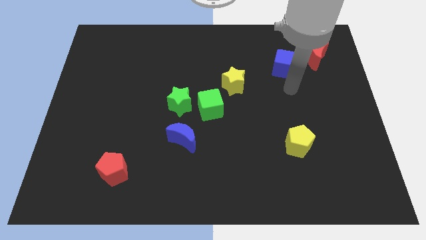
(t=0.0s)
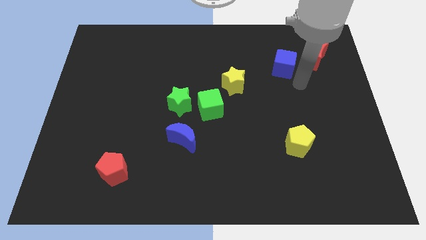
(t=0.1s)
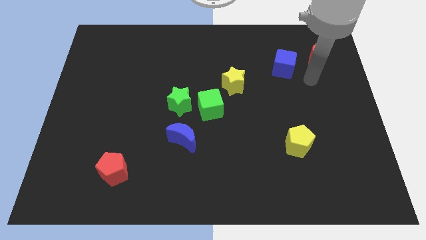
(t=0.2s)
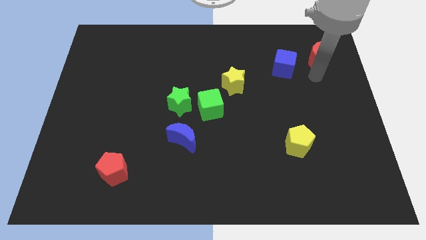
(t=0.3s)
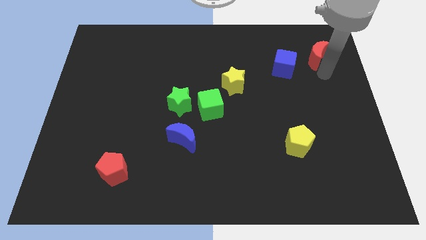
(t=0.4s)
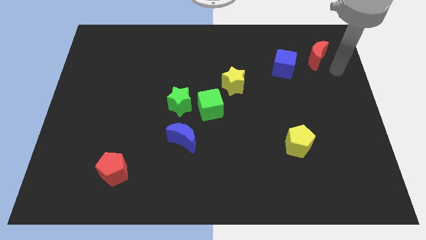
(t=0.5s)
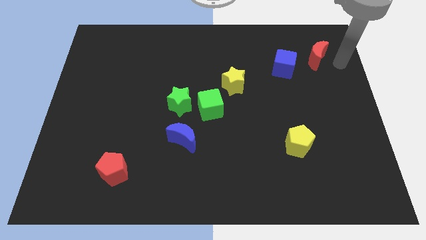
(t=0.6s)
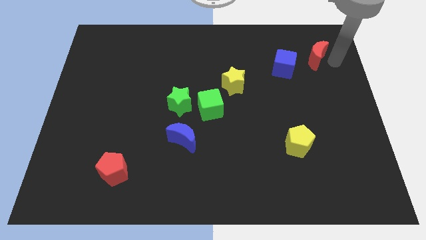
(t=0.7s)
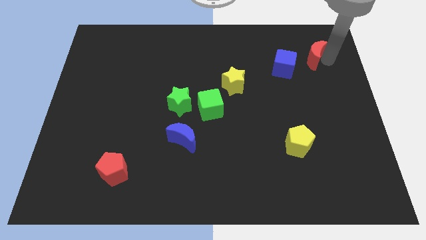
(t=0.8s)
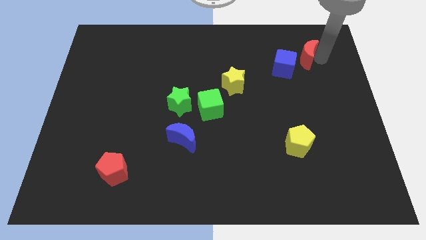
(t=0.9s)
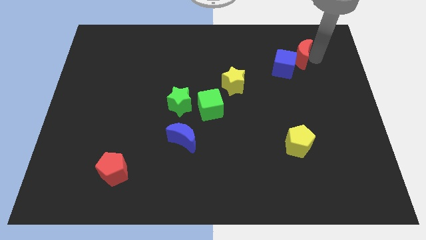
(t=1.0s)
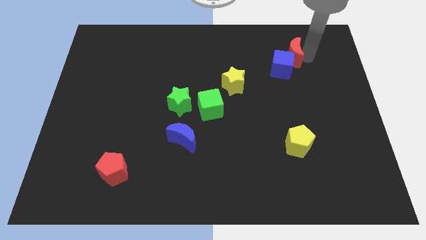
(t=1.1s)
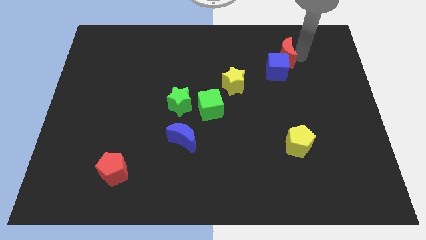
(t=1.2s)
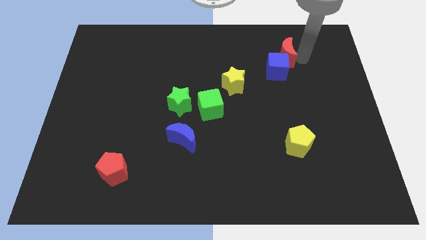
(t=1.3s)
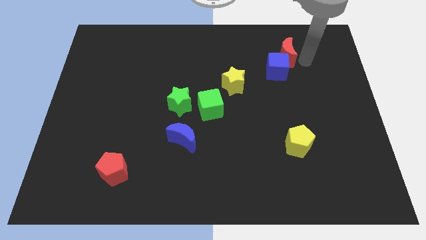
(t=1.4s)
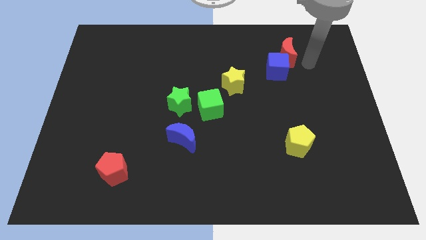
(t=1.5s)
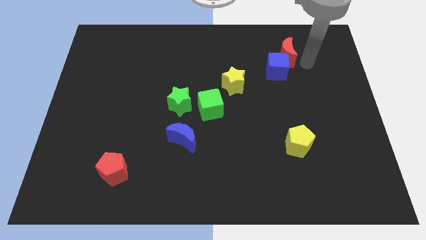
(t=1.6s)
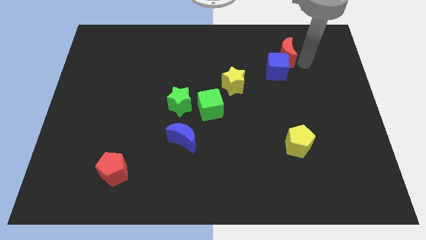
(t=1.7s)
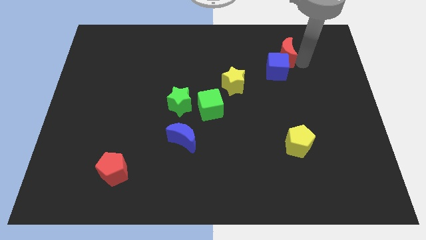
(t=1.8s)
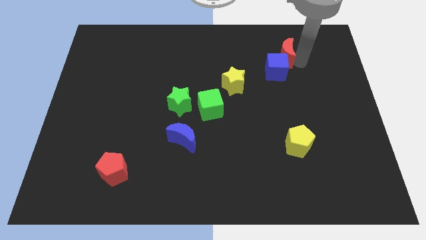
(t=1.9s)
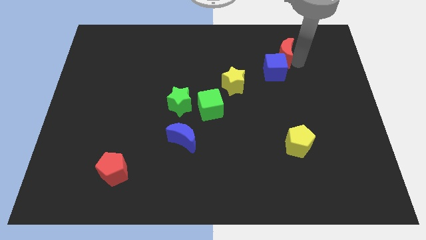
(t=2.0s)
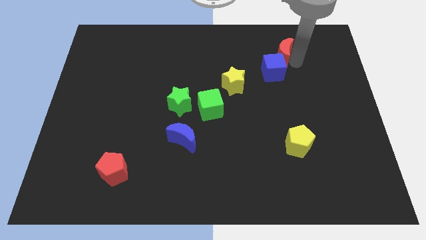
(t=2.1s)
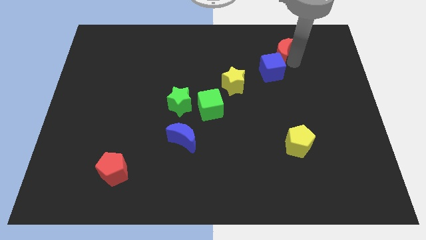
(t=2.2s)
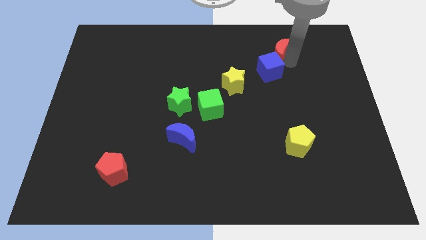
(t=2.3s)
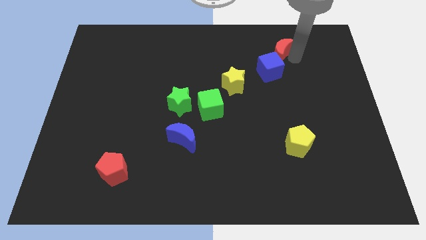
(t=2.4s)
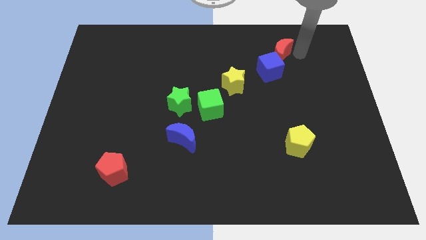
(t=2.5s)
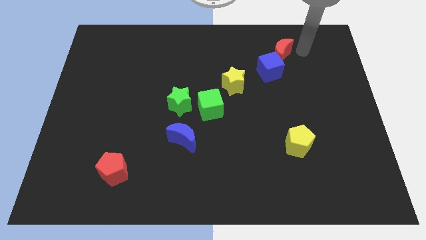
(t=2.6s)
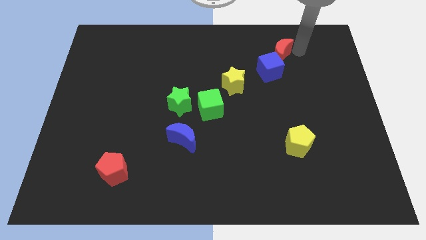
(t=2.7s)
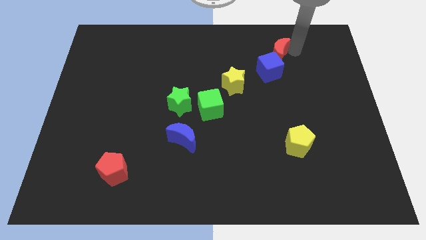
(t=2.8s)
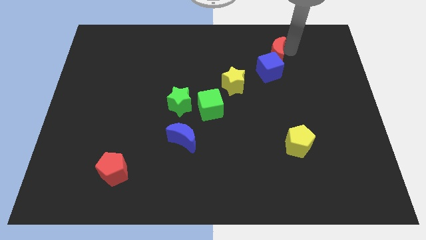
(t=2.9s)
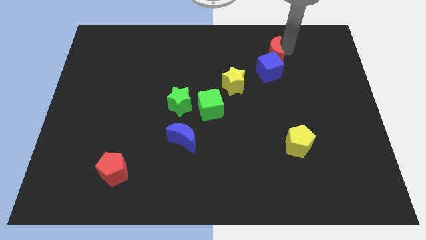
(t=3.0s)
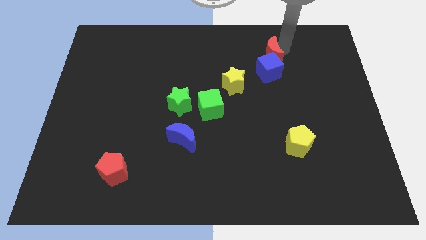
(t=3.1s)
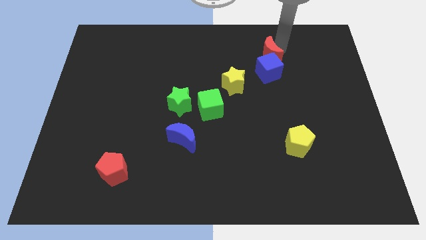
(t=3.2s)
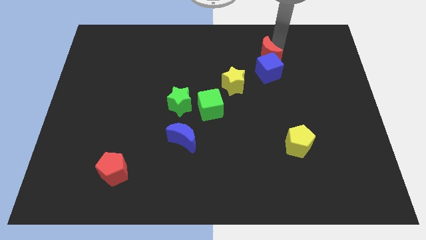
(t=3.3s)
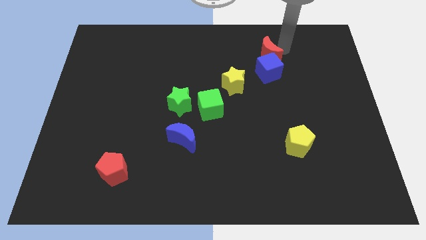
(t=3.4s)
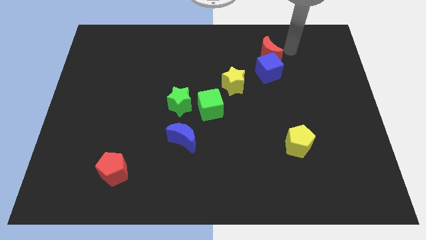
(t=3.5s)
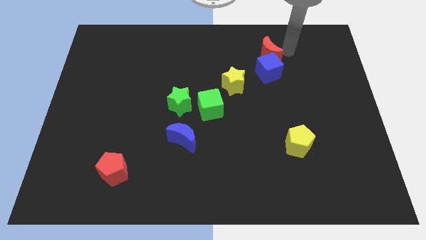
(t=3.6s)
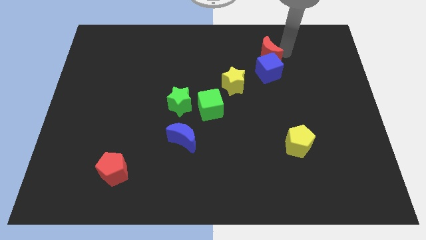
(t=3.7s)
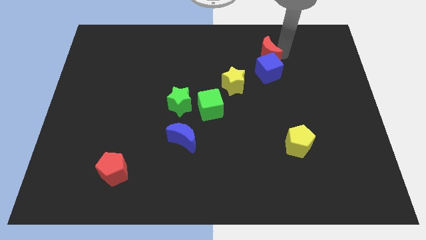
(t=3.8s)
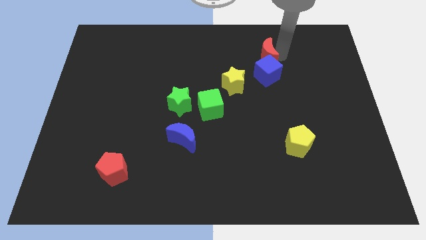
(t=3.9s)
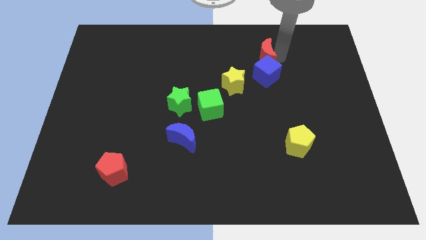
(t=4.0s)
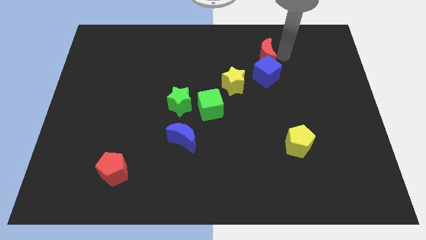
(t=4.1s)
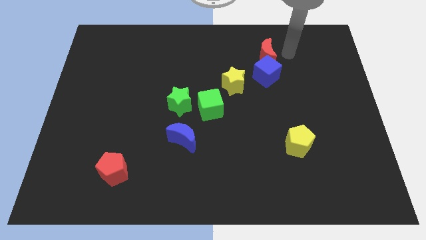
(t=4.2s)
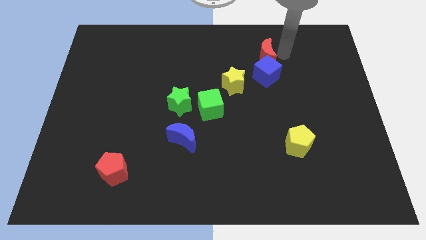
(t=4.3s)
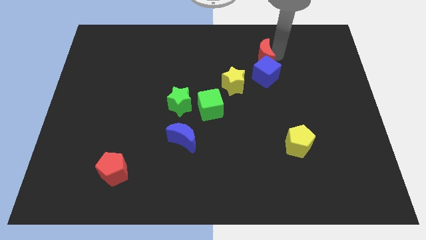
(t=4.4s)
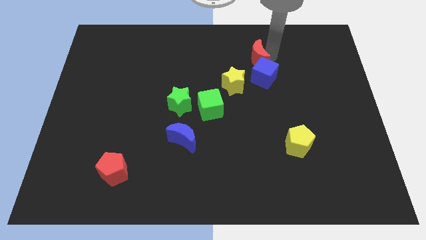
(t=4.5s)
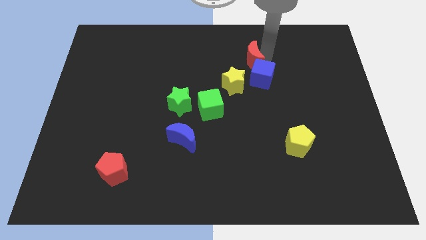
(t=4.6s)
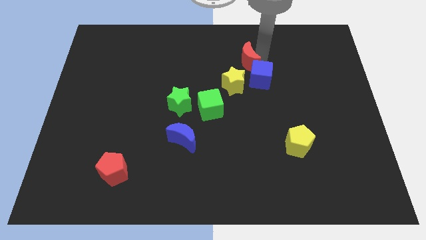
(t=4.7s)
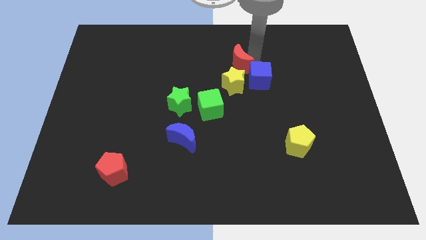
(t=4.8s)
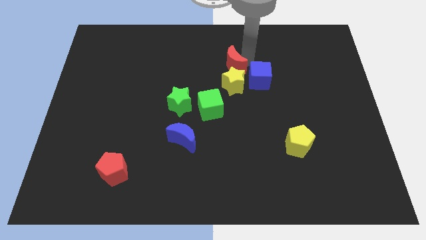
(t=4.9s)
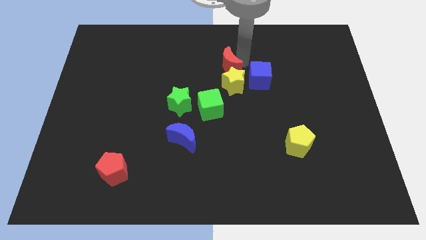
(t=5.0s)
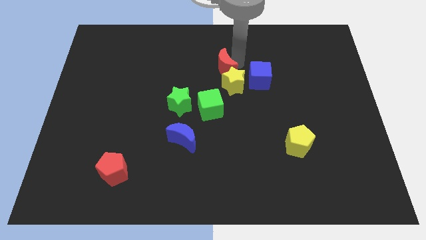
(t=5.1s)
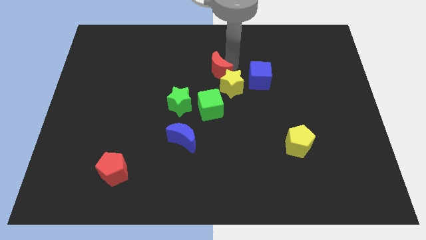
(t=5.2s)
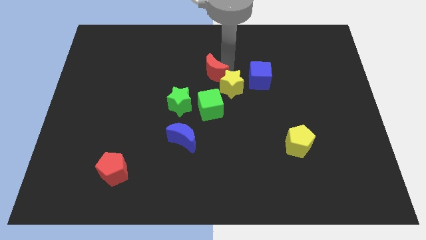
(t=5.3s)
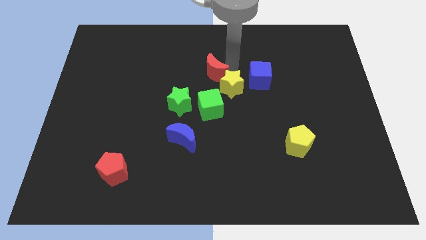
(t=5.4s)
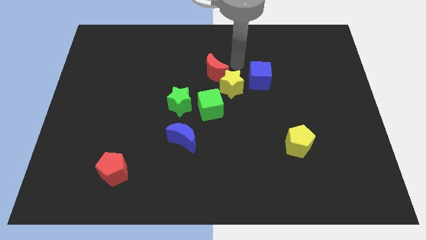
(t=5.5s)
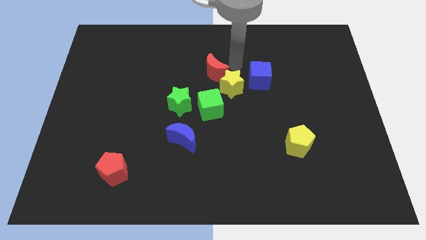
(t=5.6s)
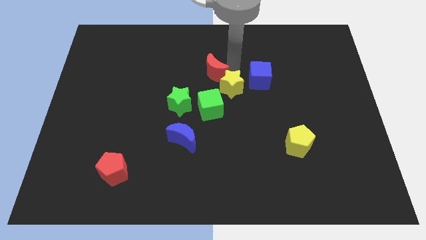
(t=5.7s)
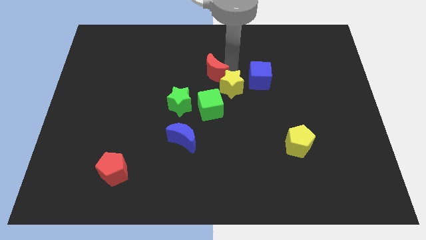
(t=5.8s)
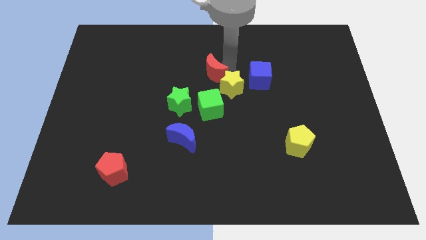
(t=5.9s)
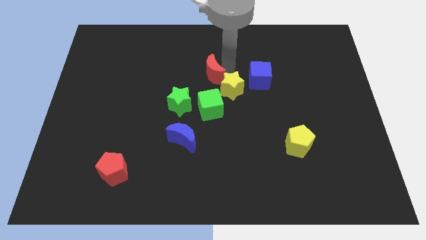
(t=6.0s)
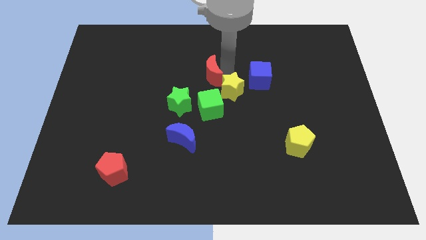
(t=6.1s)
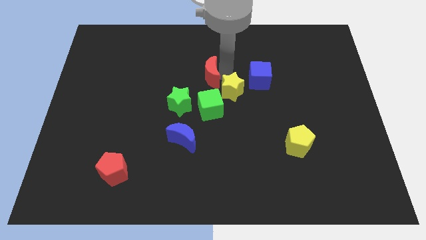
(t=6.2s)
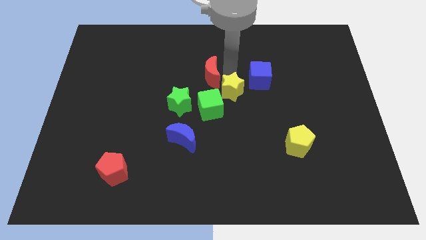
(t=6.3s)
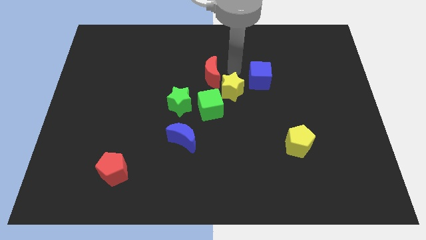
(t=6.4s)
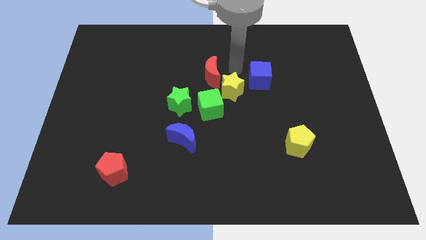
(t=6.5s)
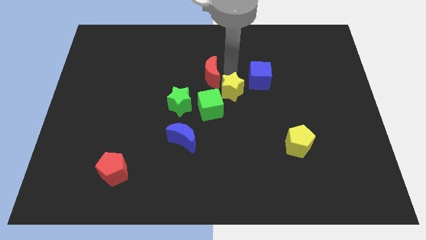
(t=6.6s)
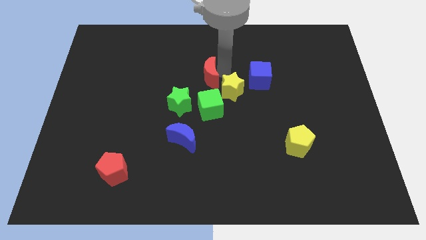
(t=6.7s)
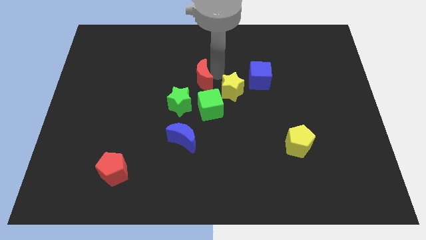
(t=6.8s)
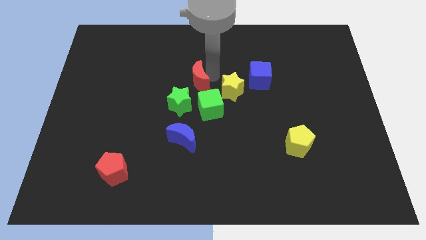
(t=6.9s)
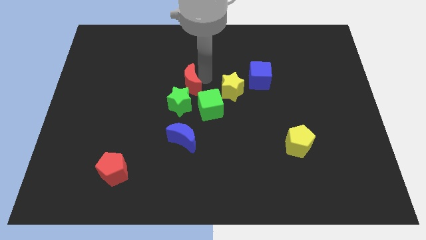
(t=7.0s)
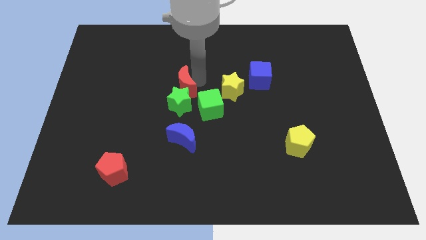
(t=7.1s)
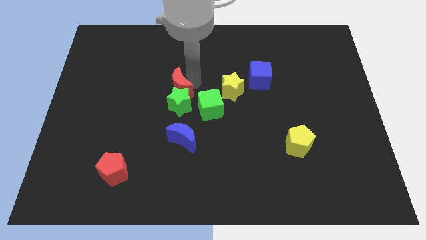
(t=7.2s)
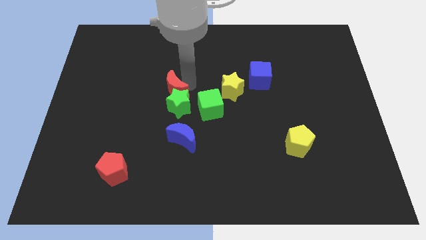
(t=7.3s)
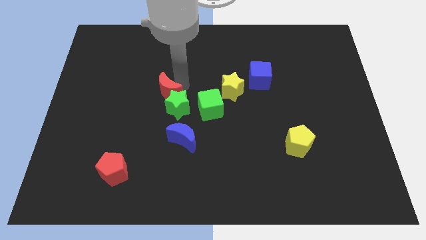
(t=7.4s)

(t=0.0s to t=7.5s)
put the red moon just left of the green cube
